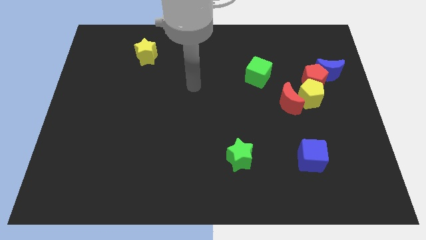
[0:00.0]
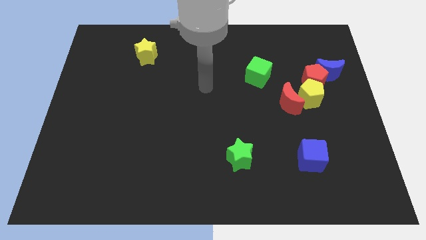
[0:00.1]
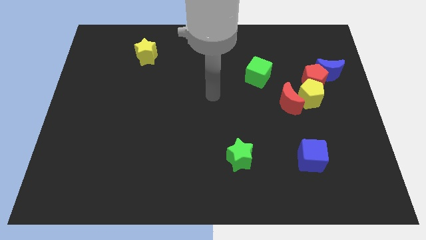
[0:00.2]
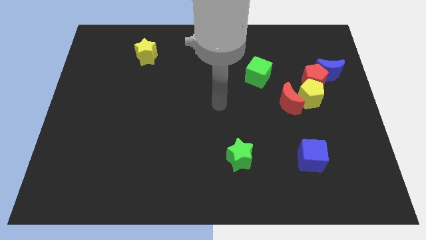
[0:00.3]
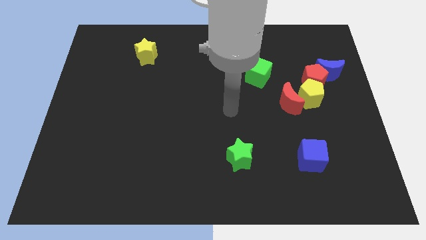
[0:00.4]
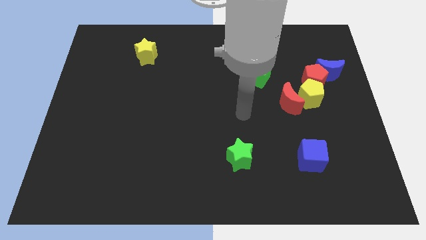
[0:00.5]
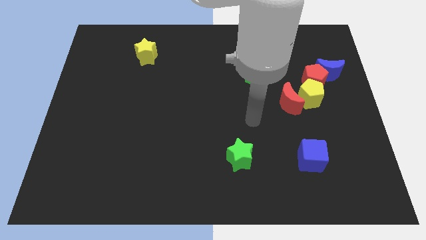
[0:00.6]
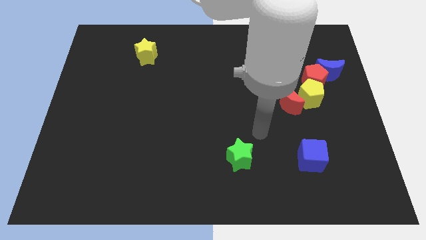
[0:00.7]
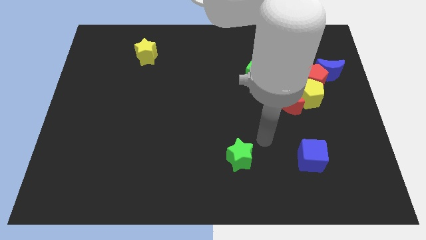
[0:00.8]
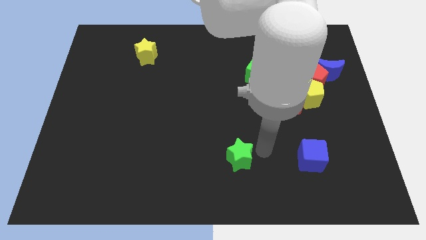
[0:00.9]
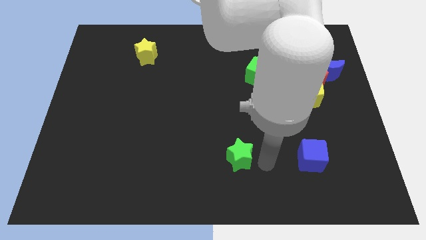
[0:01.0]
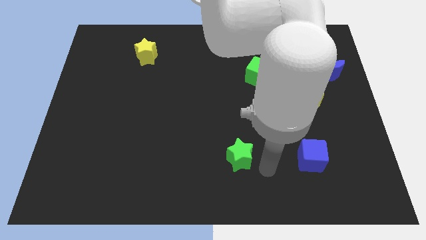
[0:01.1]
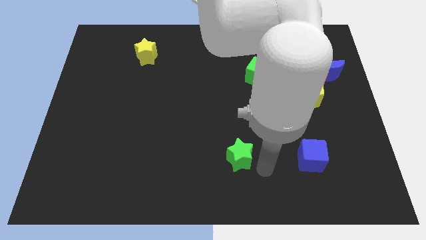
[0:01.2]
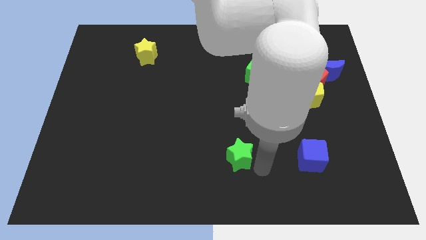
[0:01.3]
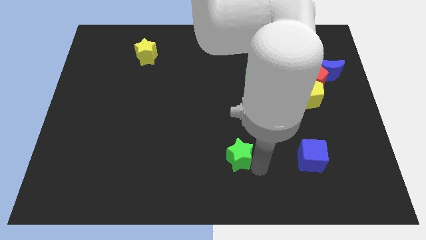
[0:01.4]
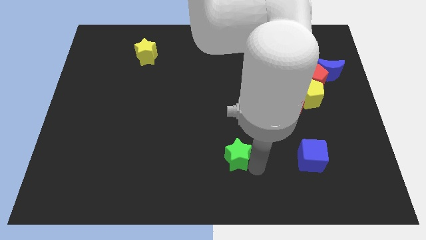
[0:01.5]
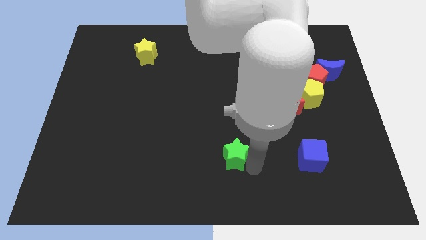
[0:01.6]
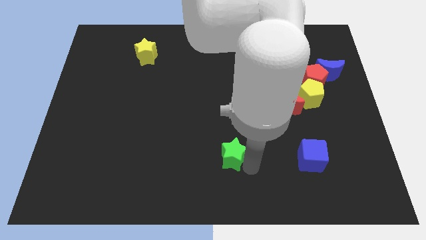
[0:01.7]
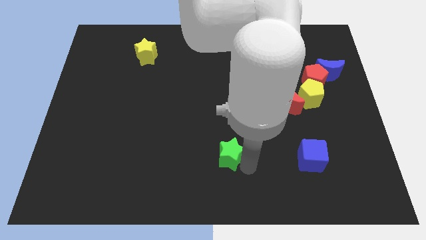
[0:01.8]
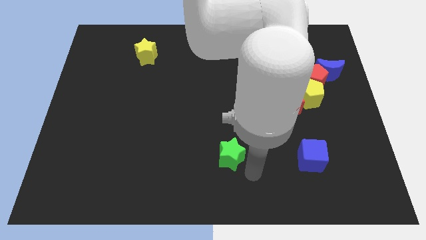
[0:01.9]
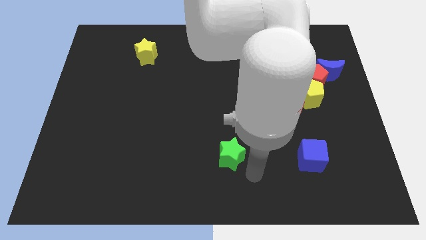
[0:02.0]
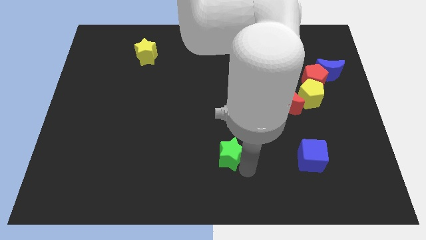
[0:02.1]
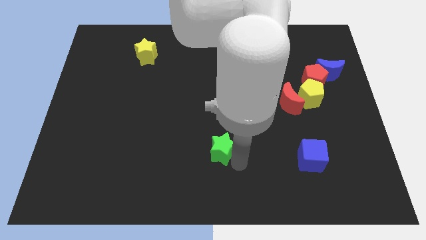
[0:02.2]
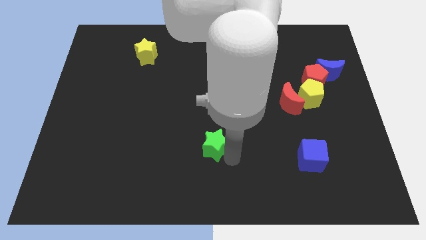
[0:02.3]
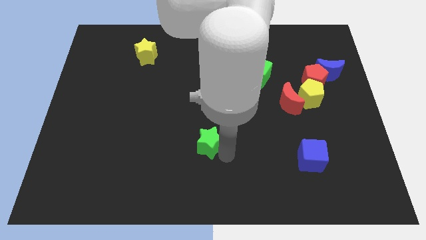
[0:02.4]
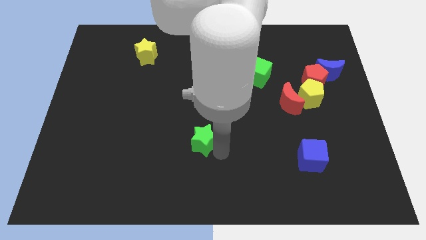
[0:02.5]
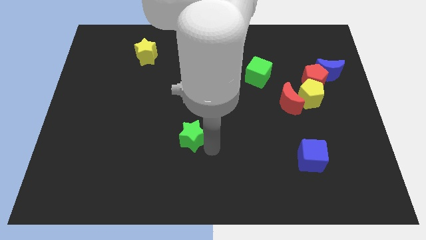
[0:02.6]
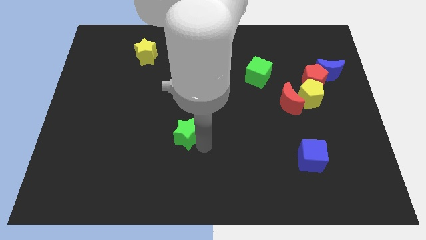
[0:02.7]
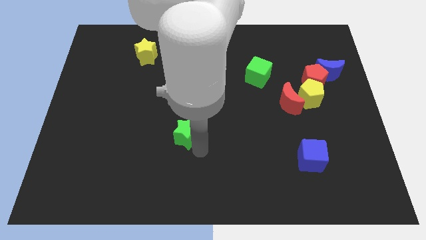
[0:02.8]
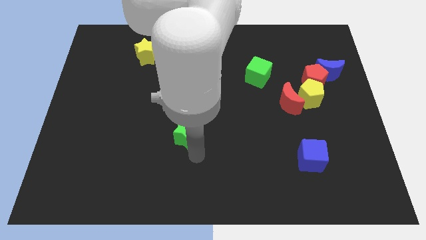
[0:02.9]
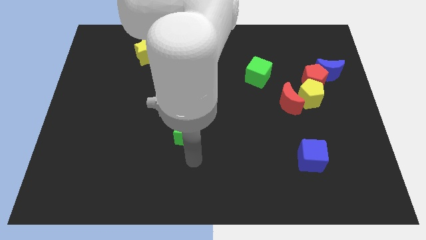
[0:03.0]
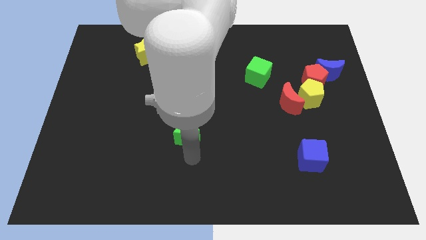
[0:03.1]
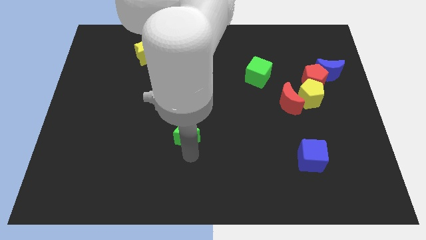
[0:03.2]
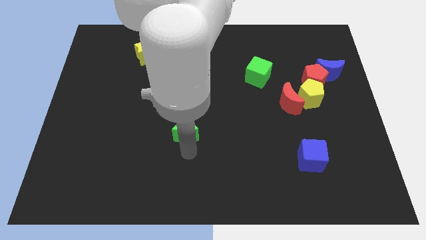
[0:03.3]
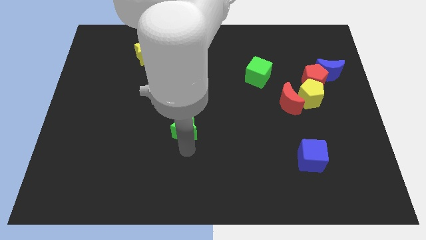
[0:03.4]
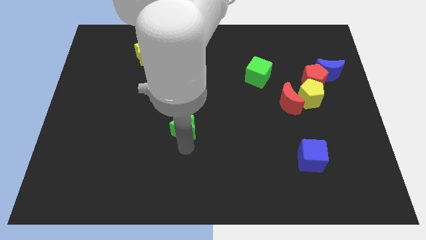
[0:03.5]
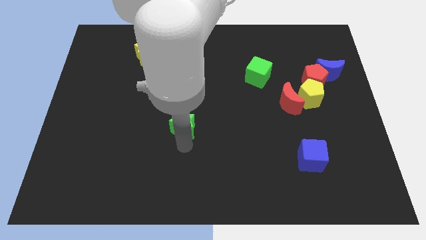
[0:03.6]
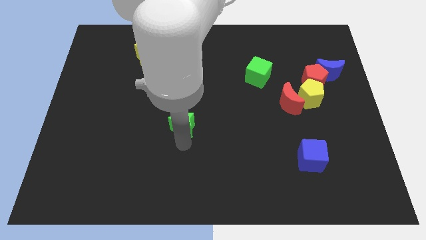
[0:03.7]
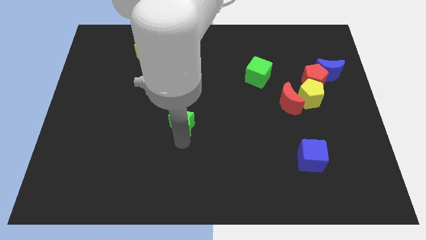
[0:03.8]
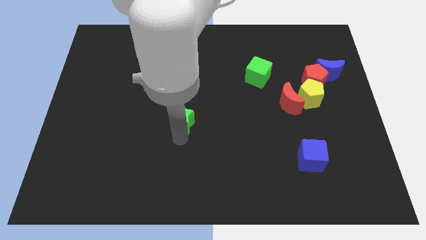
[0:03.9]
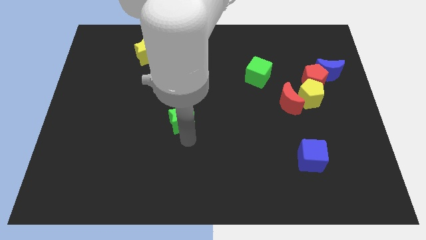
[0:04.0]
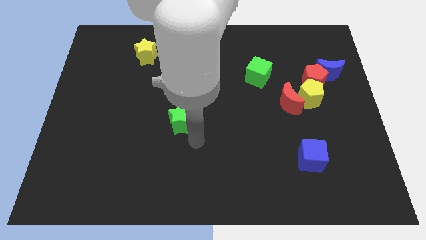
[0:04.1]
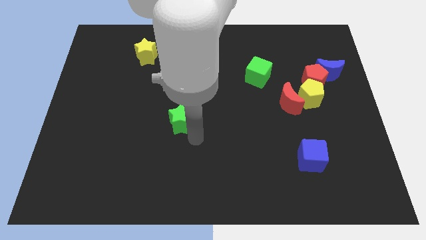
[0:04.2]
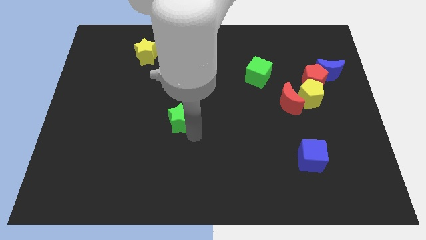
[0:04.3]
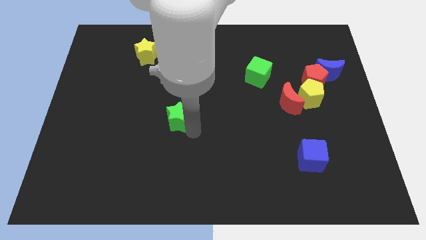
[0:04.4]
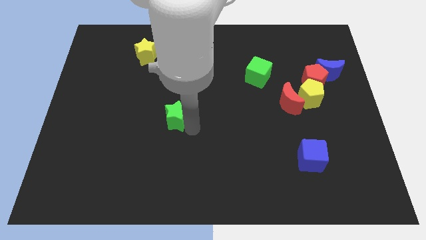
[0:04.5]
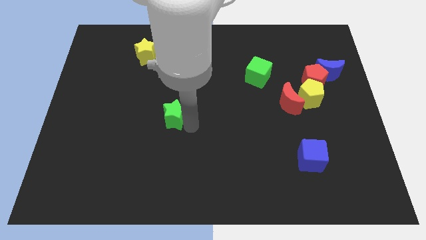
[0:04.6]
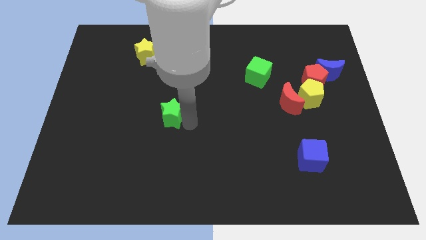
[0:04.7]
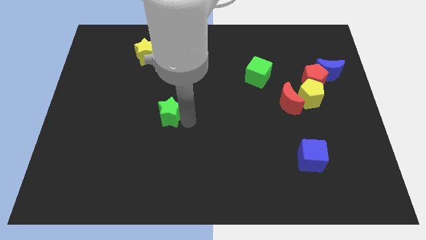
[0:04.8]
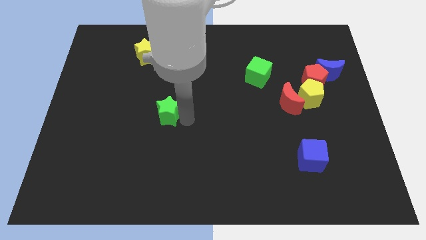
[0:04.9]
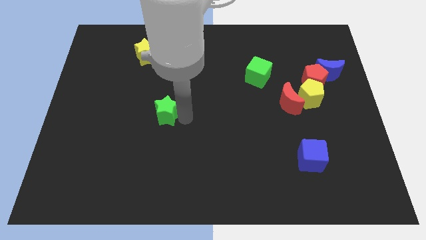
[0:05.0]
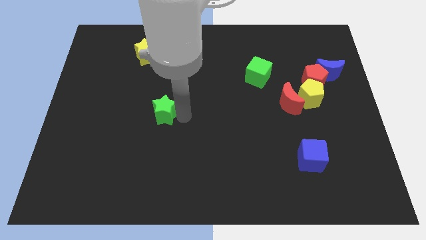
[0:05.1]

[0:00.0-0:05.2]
slide the green star up and then left

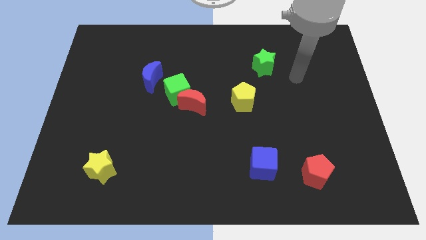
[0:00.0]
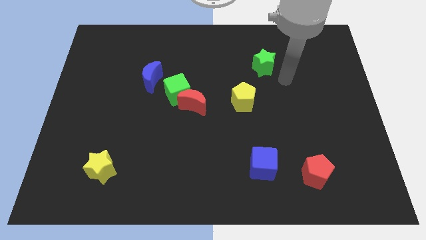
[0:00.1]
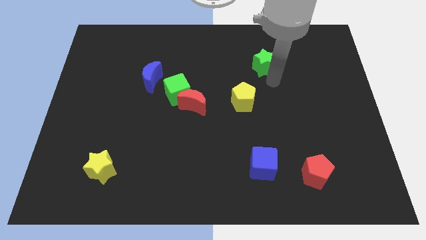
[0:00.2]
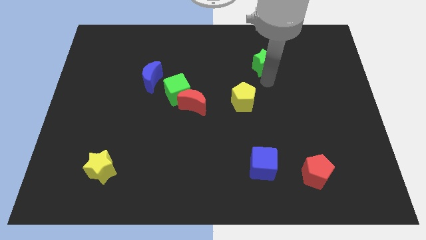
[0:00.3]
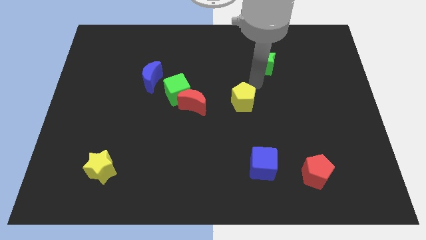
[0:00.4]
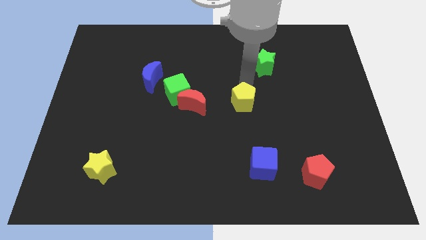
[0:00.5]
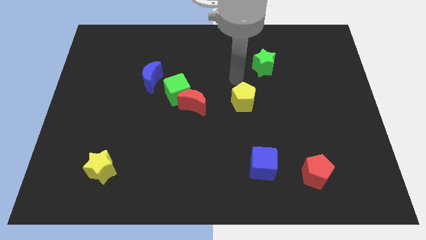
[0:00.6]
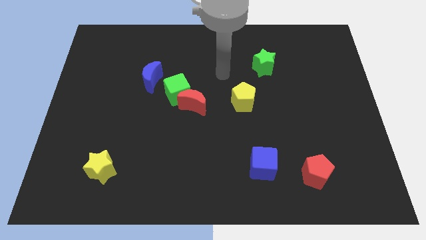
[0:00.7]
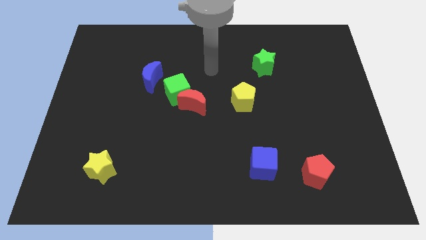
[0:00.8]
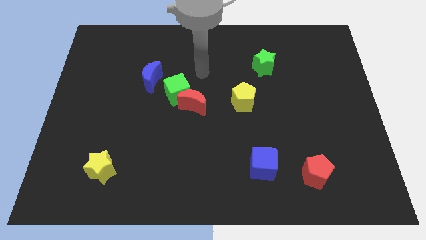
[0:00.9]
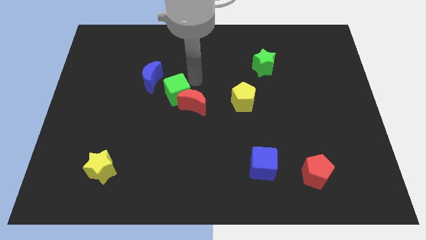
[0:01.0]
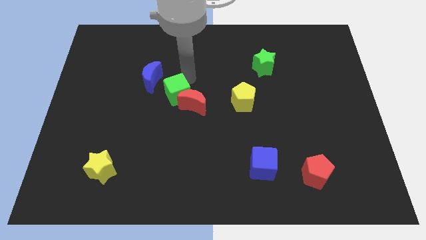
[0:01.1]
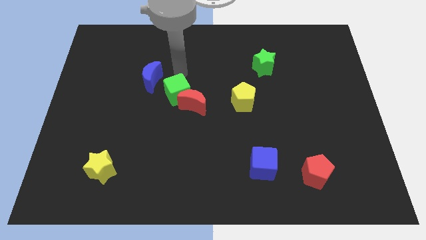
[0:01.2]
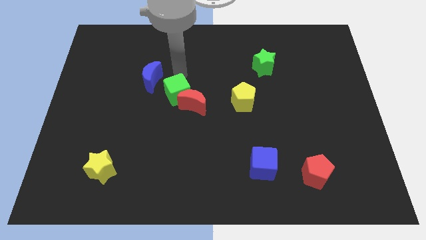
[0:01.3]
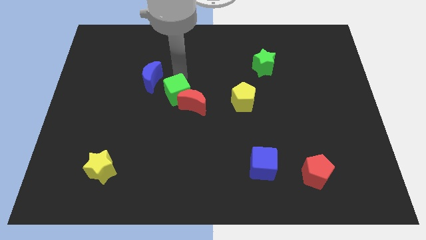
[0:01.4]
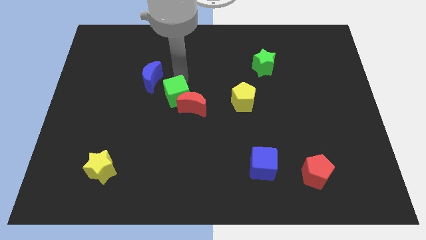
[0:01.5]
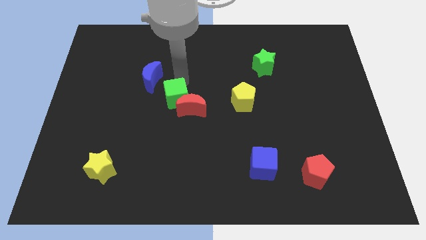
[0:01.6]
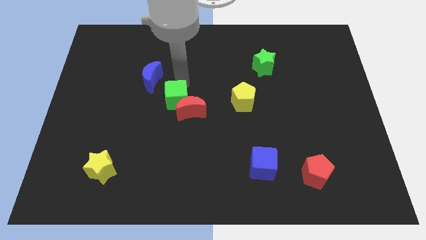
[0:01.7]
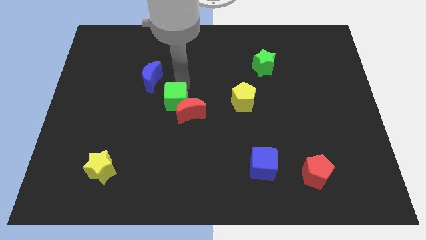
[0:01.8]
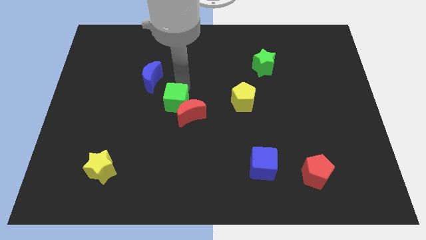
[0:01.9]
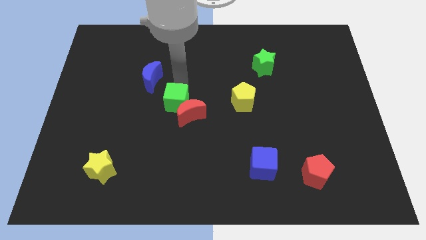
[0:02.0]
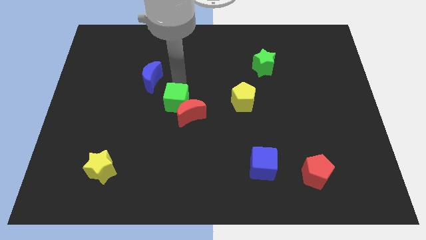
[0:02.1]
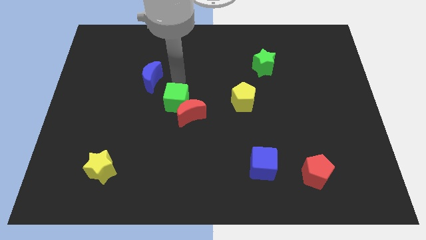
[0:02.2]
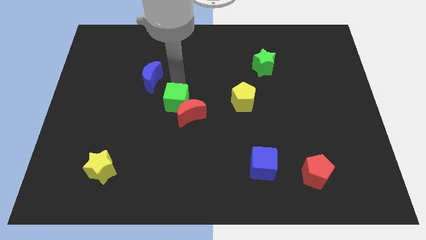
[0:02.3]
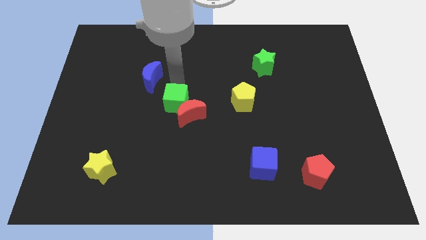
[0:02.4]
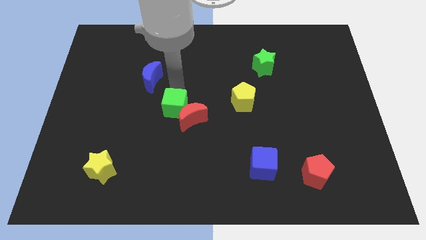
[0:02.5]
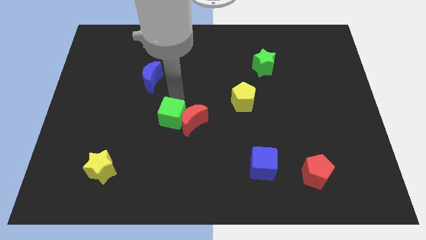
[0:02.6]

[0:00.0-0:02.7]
slide the green cube downwards a bit
